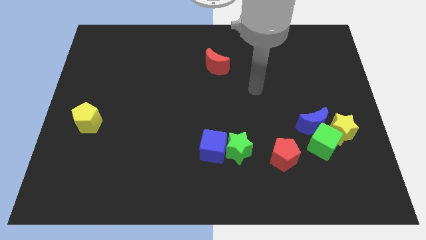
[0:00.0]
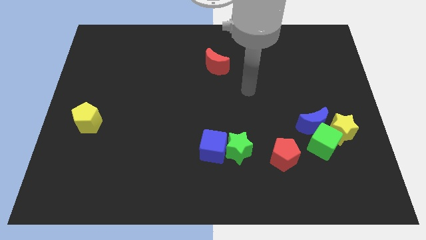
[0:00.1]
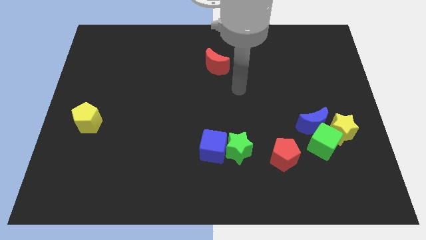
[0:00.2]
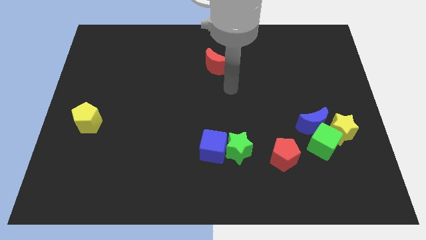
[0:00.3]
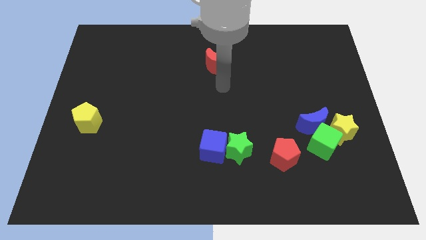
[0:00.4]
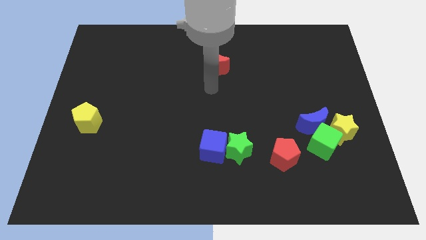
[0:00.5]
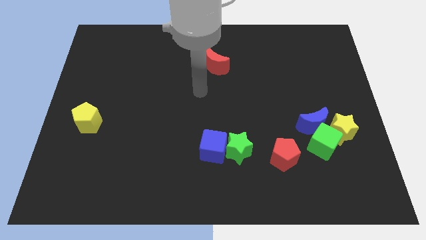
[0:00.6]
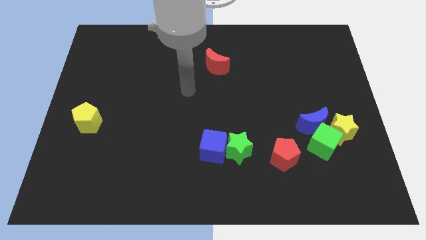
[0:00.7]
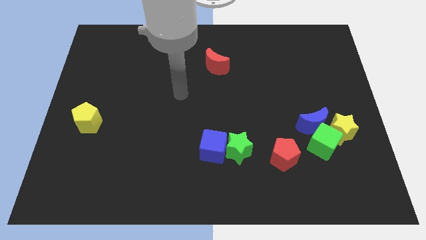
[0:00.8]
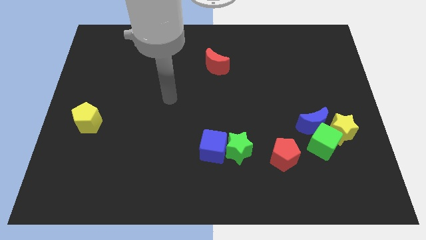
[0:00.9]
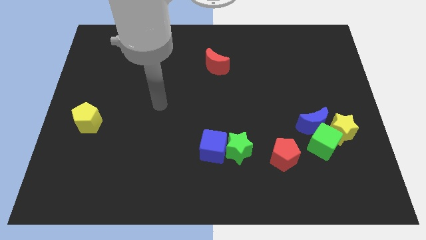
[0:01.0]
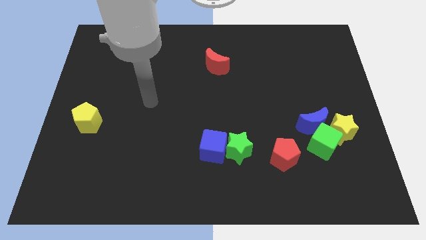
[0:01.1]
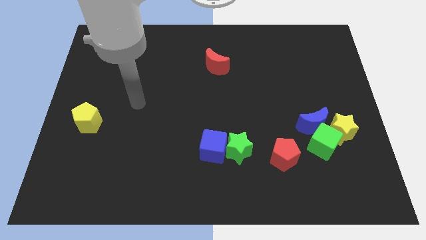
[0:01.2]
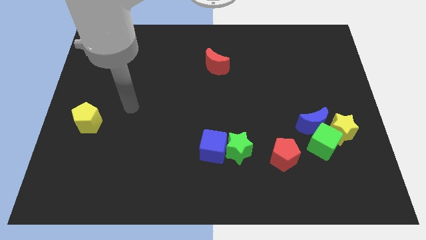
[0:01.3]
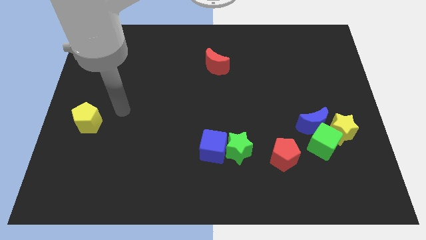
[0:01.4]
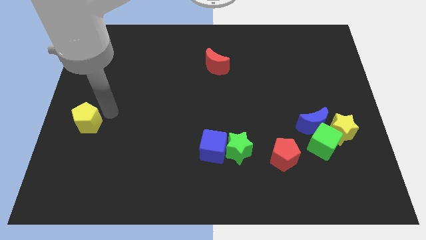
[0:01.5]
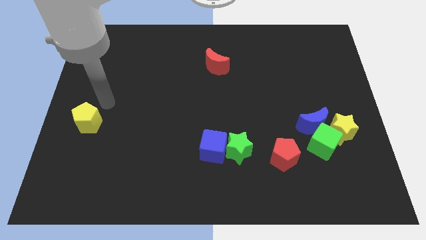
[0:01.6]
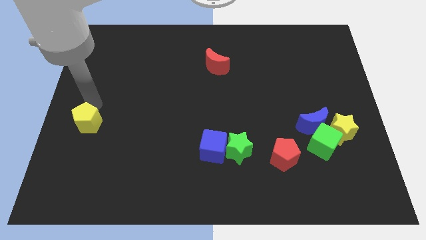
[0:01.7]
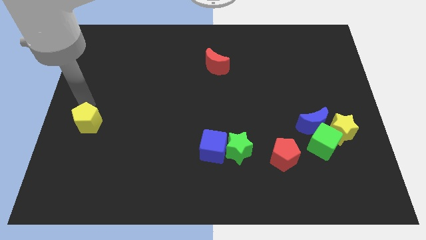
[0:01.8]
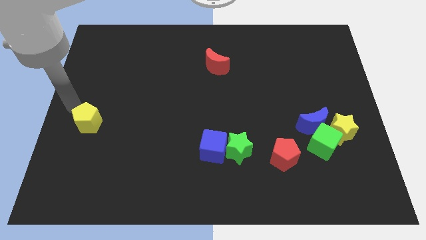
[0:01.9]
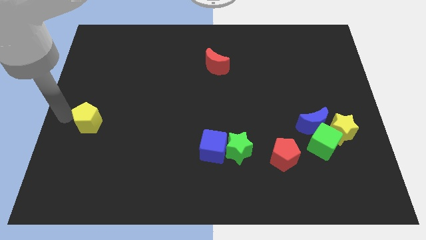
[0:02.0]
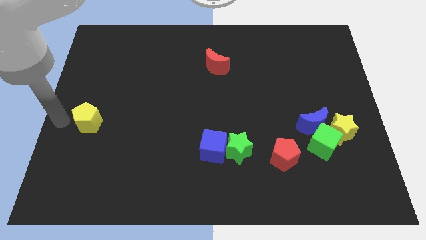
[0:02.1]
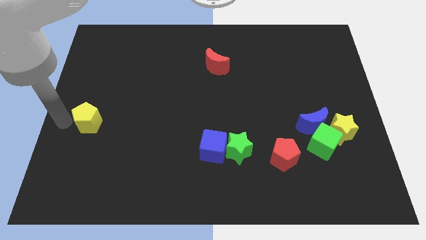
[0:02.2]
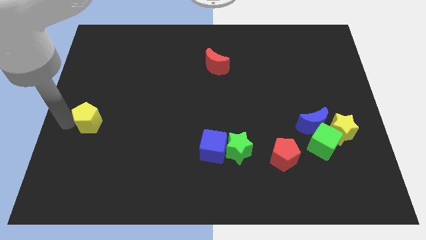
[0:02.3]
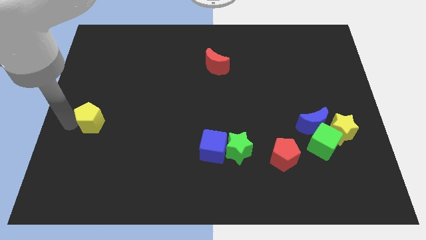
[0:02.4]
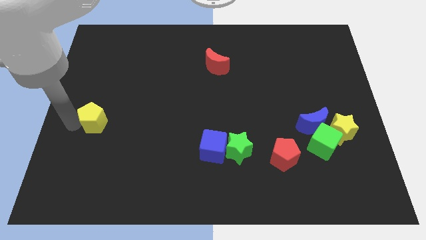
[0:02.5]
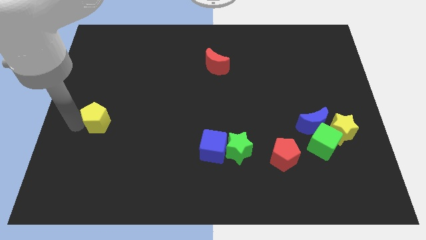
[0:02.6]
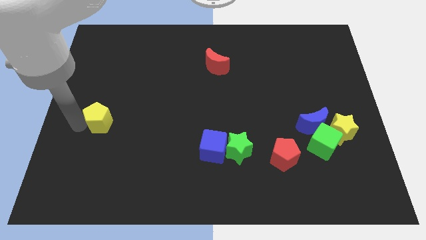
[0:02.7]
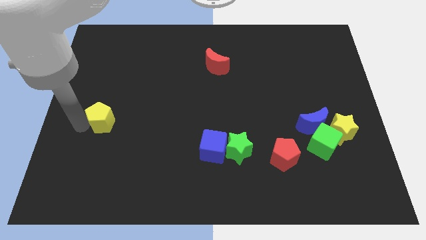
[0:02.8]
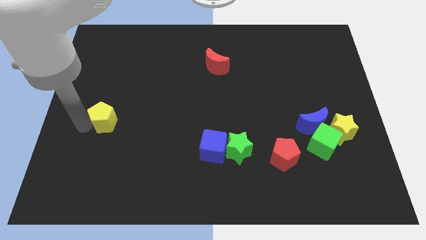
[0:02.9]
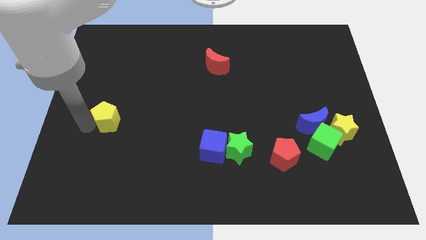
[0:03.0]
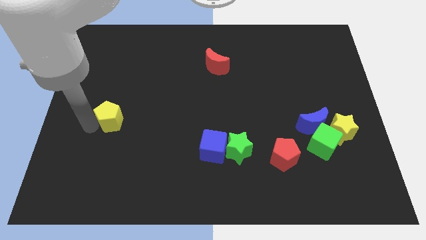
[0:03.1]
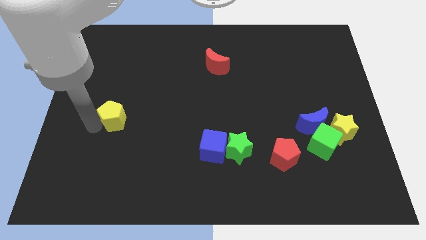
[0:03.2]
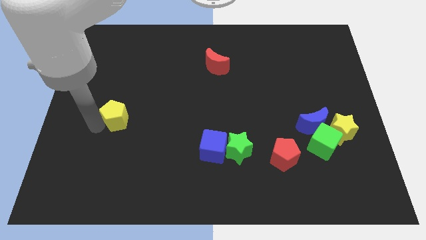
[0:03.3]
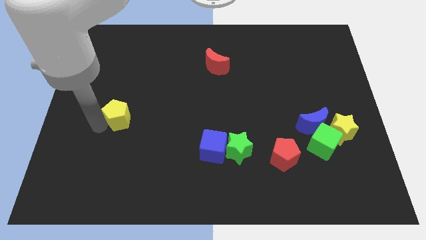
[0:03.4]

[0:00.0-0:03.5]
slightly push the yellow pentagon right

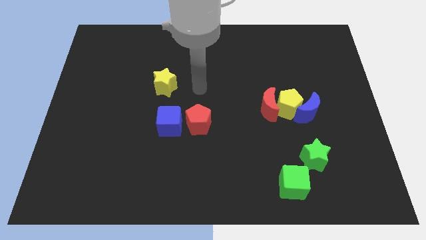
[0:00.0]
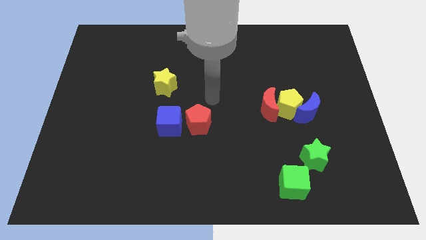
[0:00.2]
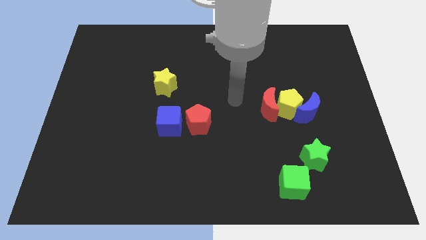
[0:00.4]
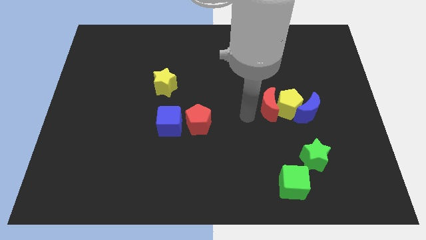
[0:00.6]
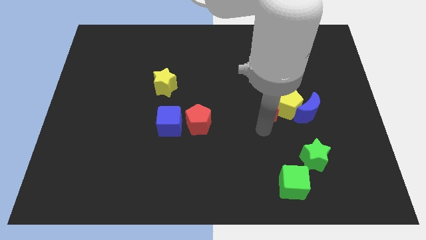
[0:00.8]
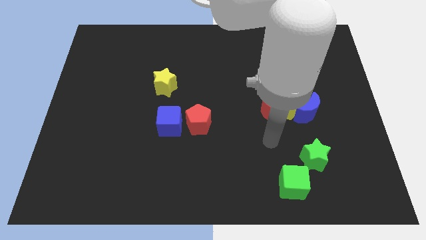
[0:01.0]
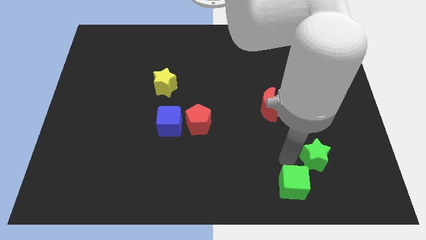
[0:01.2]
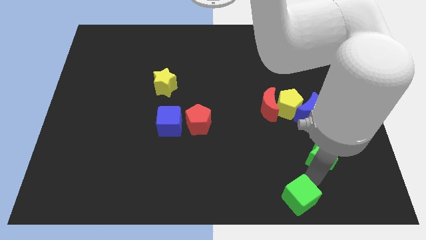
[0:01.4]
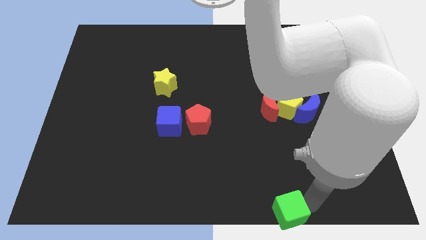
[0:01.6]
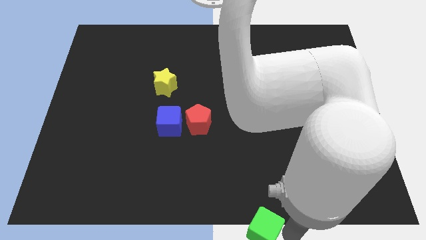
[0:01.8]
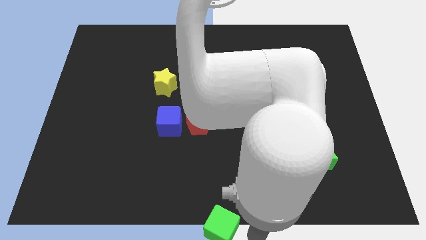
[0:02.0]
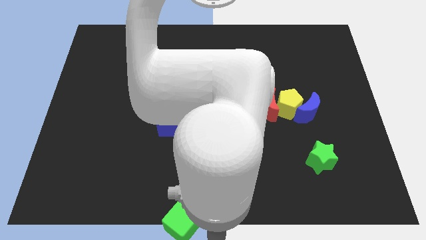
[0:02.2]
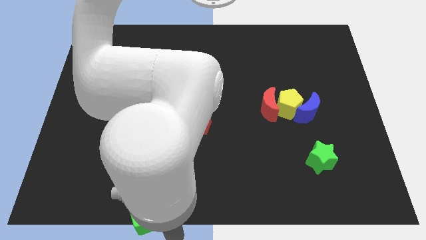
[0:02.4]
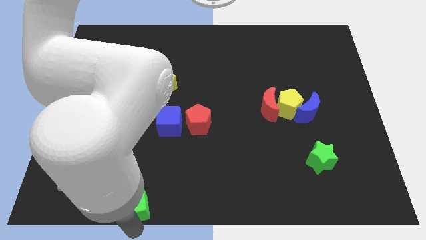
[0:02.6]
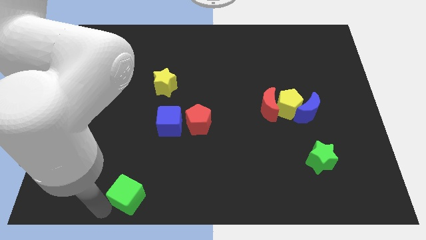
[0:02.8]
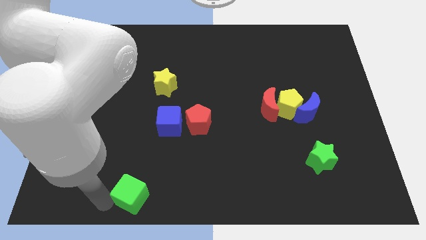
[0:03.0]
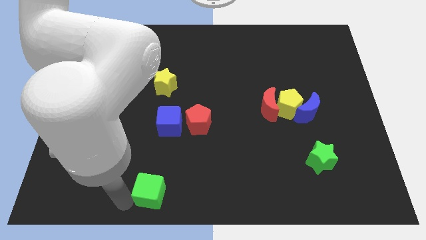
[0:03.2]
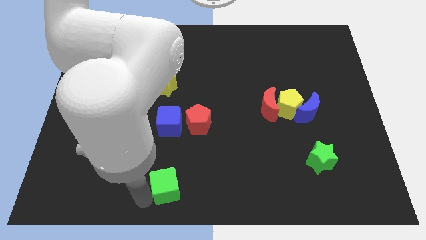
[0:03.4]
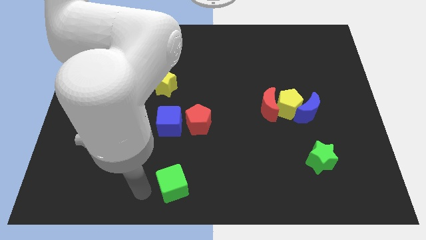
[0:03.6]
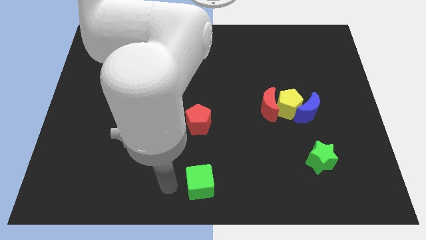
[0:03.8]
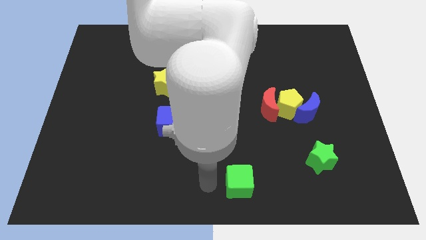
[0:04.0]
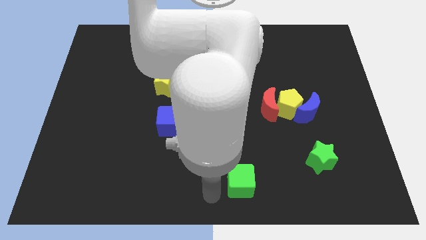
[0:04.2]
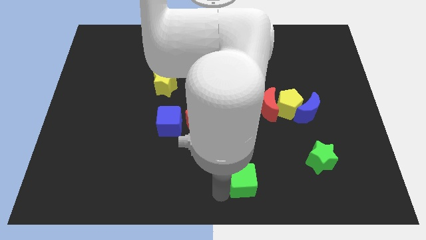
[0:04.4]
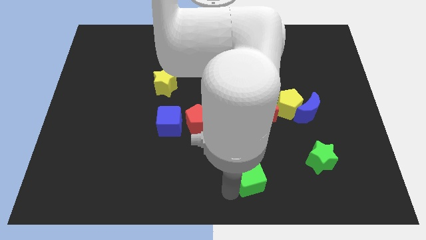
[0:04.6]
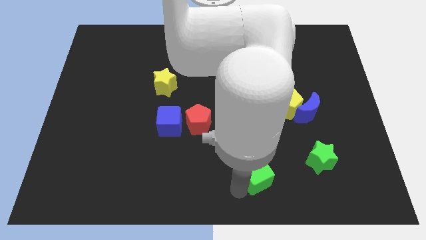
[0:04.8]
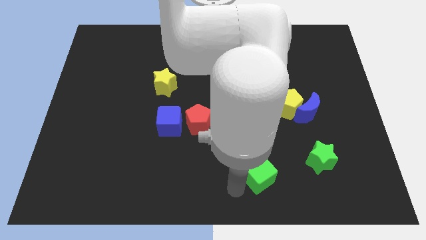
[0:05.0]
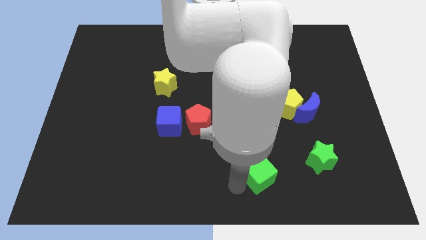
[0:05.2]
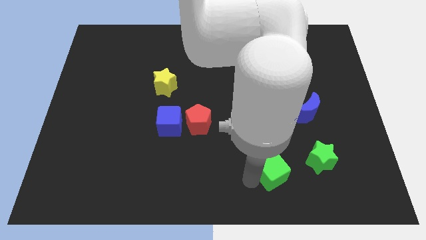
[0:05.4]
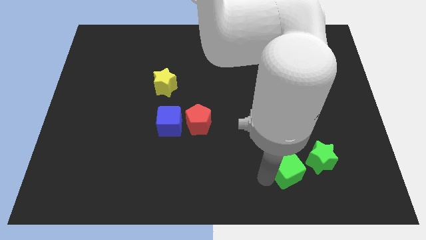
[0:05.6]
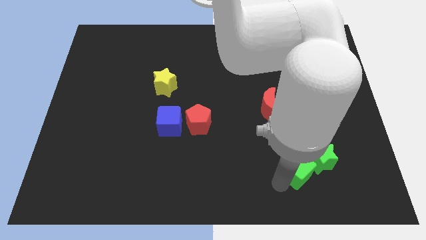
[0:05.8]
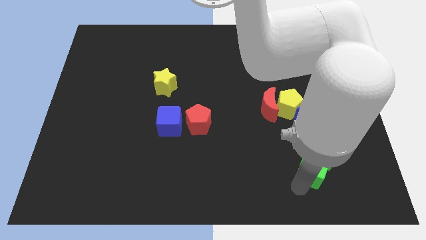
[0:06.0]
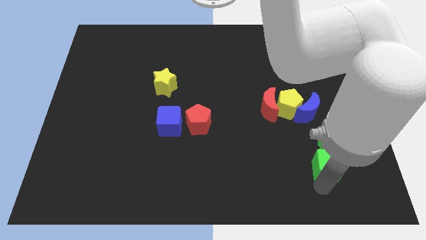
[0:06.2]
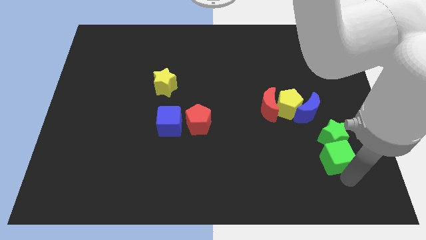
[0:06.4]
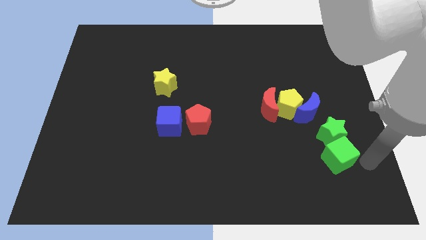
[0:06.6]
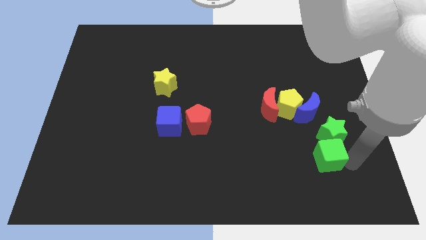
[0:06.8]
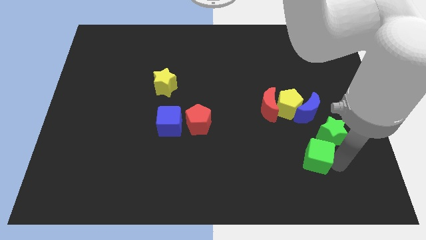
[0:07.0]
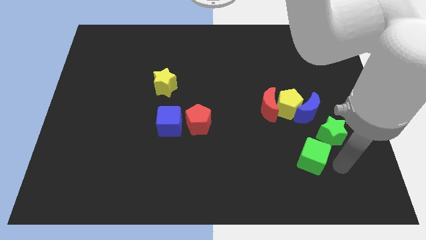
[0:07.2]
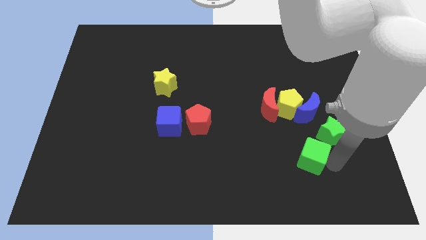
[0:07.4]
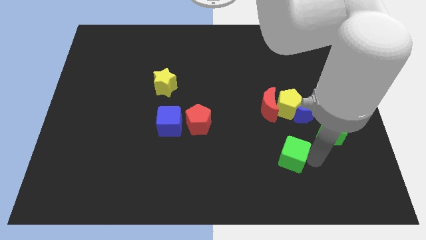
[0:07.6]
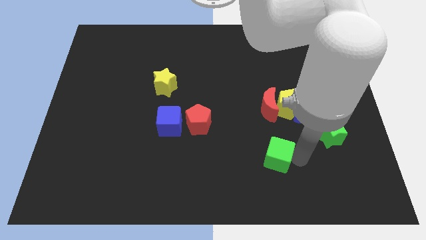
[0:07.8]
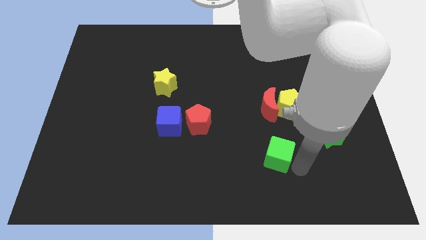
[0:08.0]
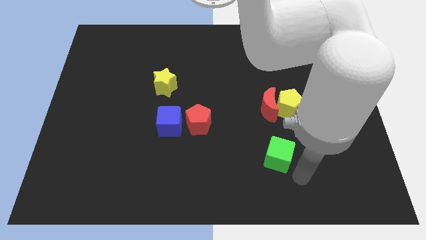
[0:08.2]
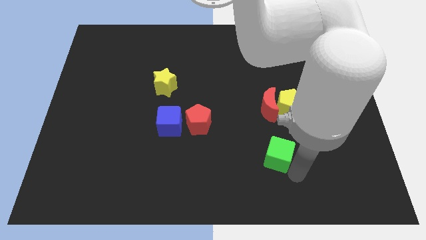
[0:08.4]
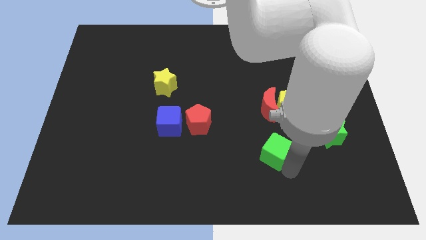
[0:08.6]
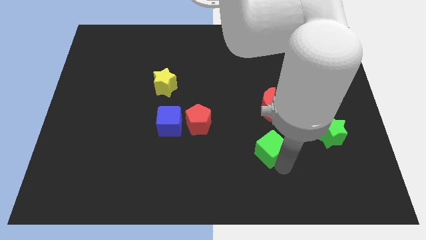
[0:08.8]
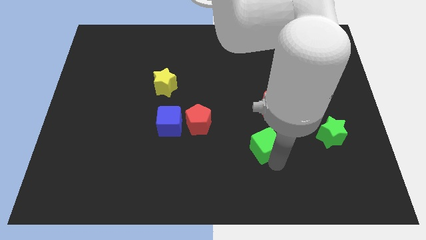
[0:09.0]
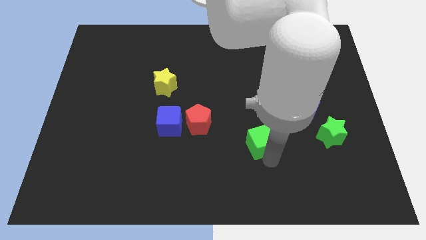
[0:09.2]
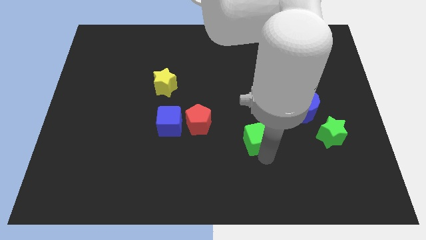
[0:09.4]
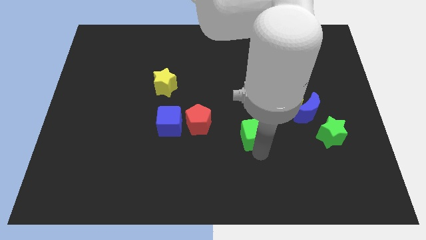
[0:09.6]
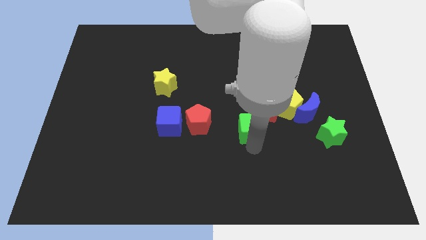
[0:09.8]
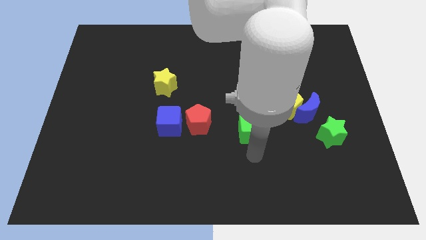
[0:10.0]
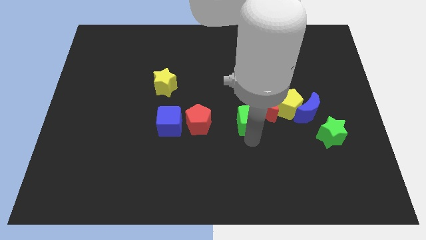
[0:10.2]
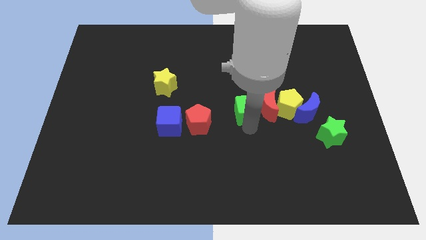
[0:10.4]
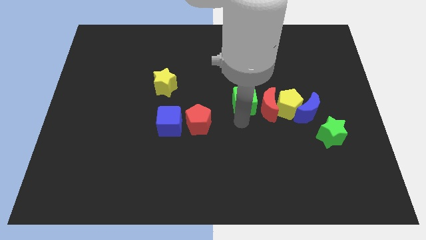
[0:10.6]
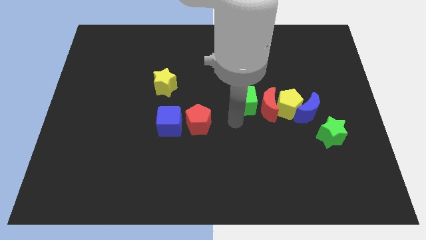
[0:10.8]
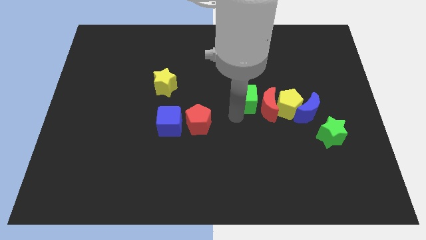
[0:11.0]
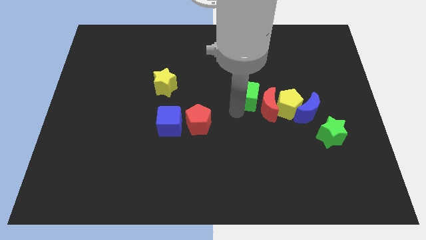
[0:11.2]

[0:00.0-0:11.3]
move the green cube upwards
